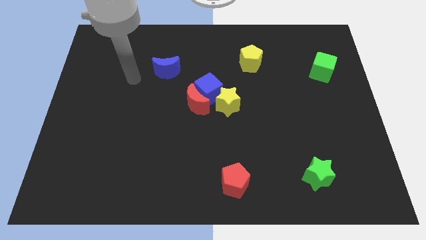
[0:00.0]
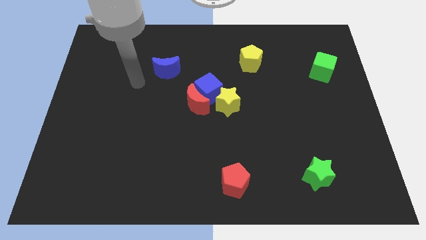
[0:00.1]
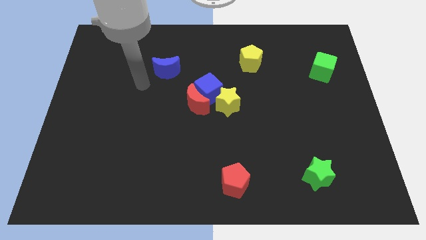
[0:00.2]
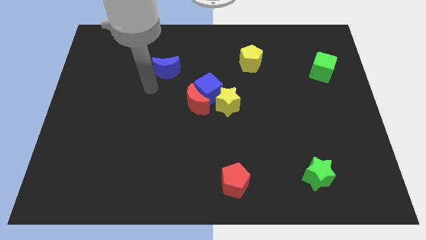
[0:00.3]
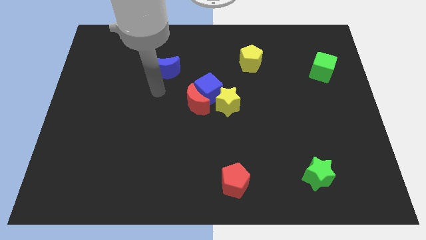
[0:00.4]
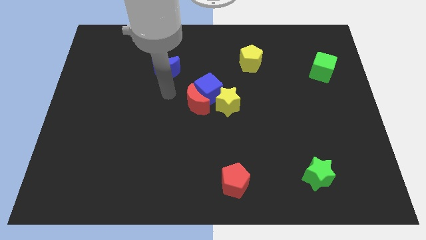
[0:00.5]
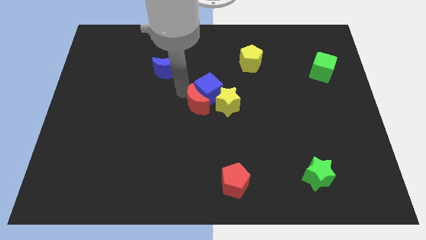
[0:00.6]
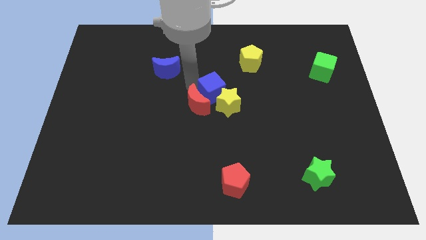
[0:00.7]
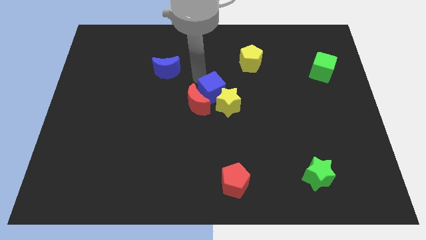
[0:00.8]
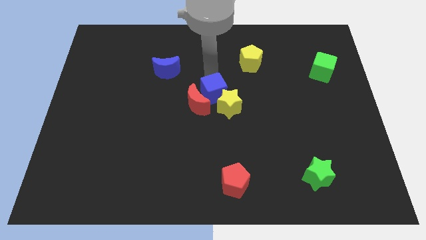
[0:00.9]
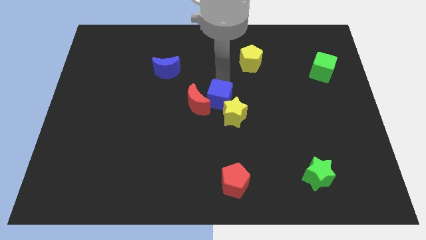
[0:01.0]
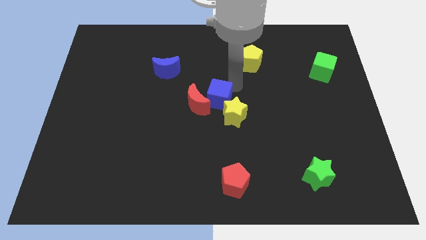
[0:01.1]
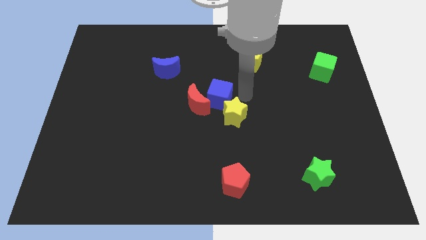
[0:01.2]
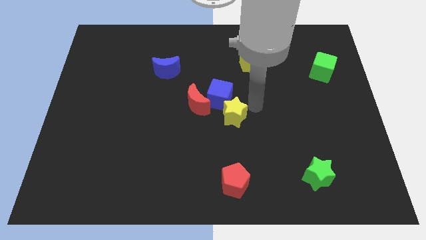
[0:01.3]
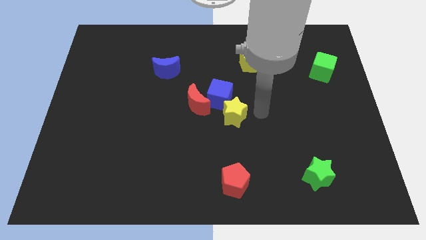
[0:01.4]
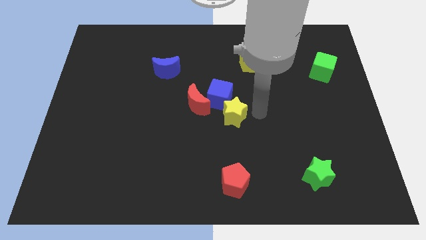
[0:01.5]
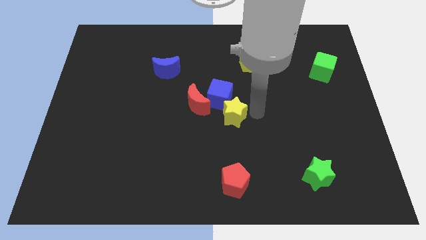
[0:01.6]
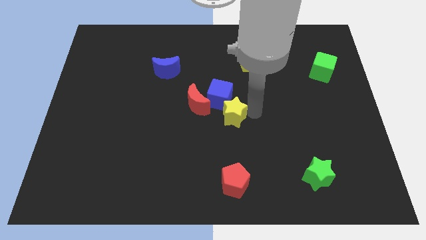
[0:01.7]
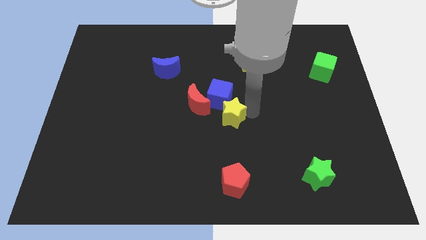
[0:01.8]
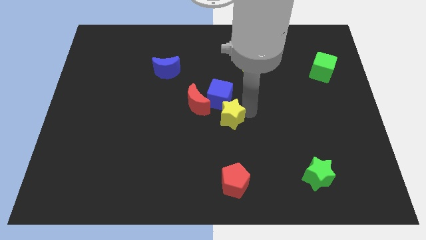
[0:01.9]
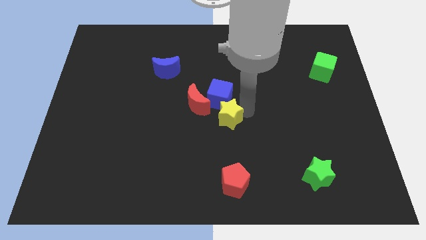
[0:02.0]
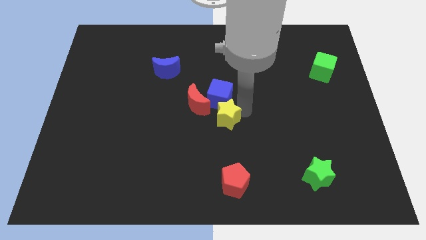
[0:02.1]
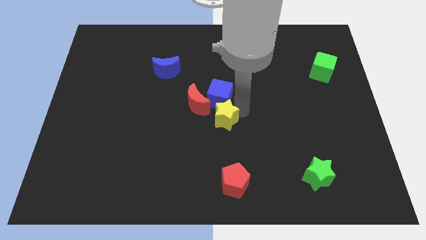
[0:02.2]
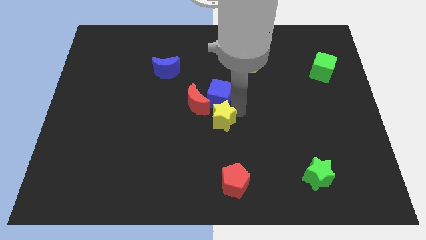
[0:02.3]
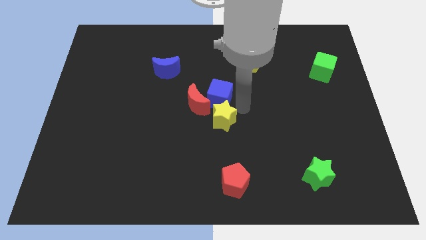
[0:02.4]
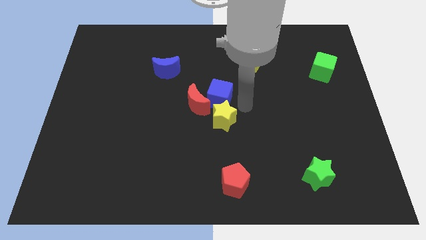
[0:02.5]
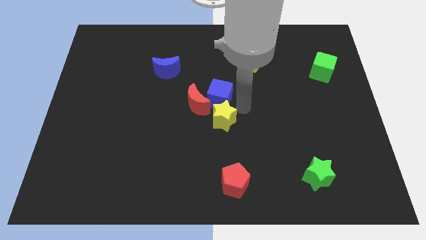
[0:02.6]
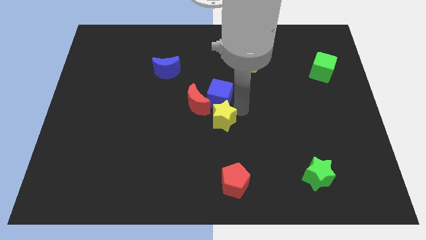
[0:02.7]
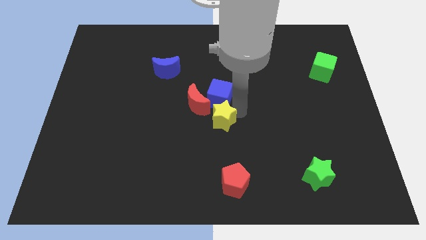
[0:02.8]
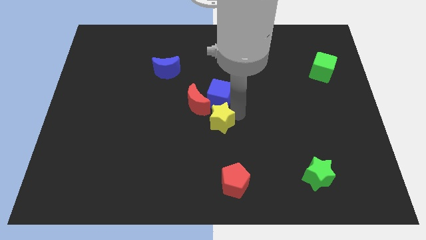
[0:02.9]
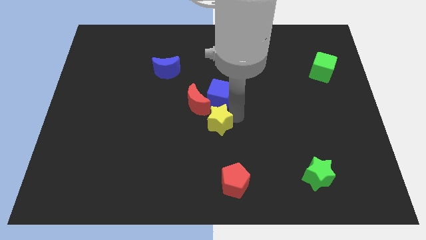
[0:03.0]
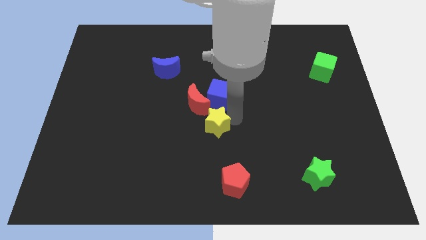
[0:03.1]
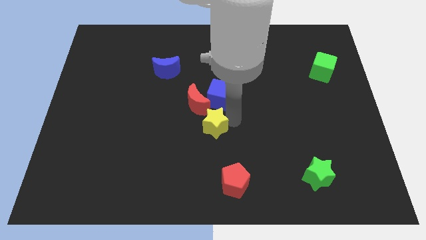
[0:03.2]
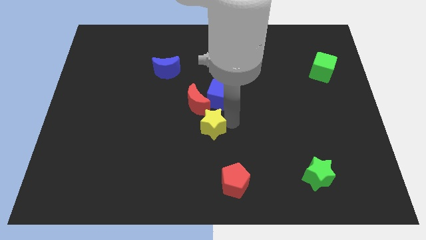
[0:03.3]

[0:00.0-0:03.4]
slide the yellow star somewhat down and then left

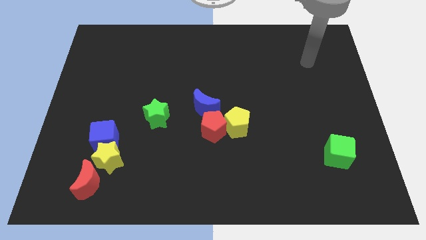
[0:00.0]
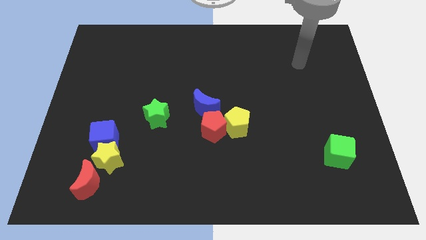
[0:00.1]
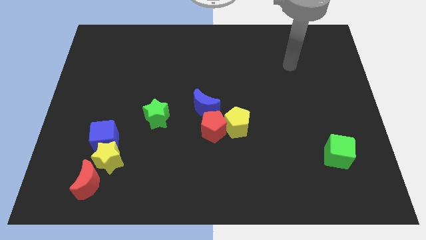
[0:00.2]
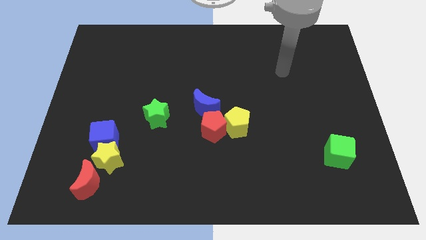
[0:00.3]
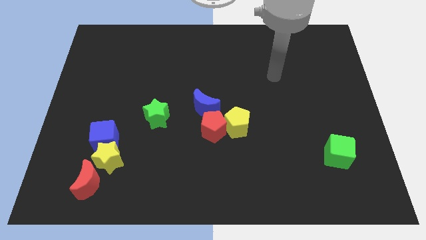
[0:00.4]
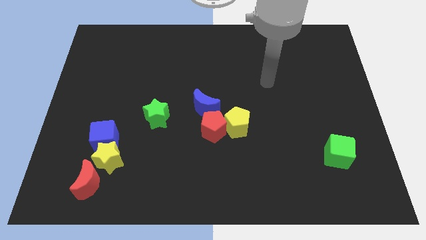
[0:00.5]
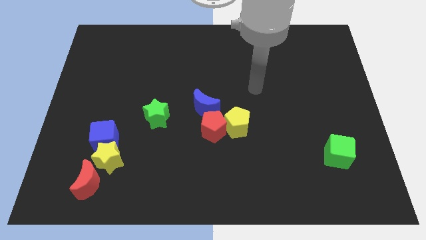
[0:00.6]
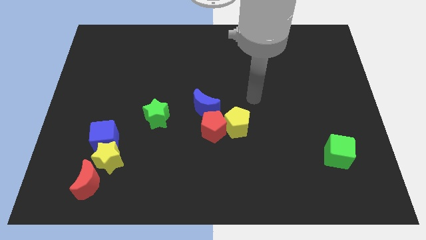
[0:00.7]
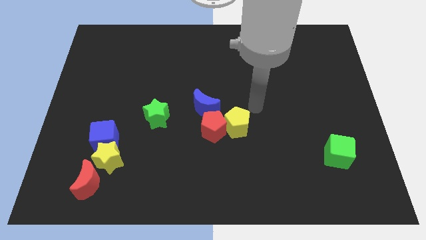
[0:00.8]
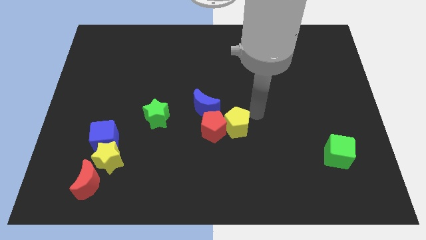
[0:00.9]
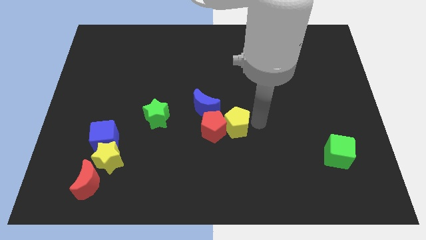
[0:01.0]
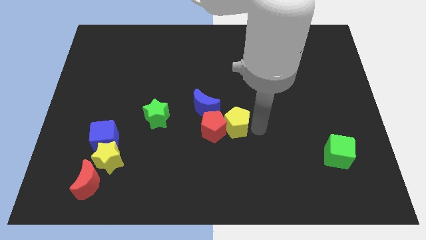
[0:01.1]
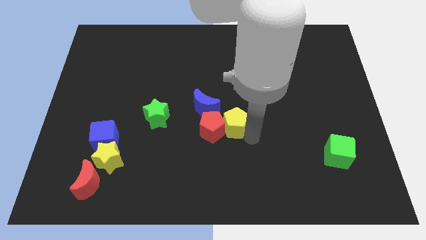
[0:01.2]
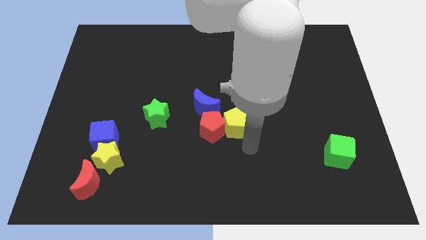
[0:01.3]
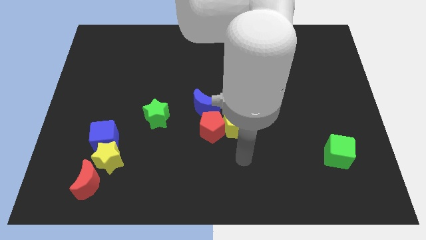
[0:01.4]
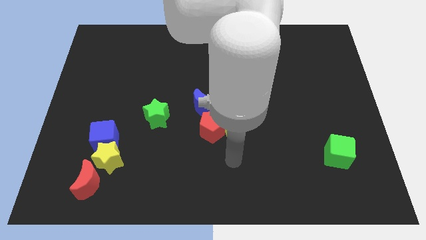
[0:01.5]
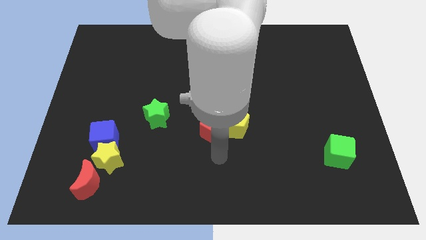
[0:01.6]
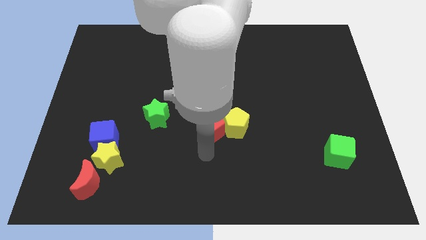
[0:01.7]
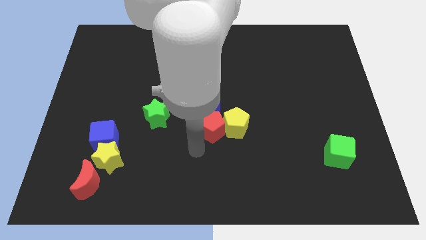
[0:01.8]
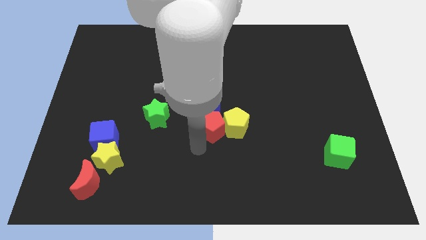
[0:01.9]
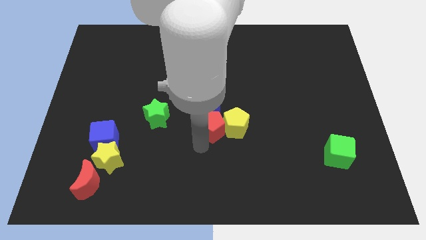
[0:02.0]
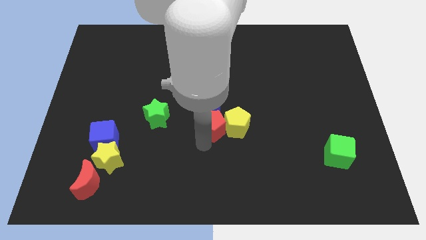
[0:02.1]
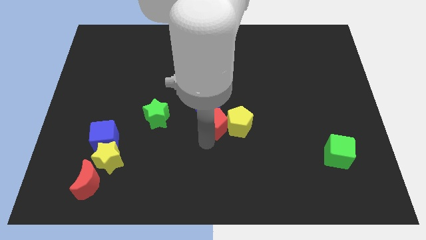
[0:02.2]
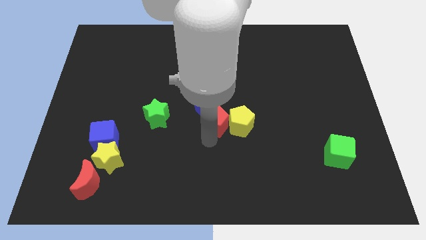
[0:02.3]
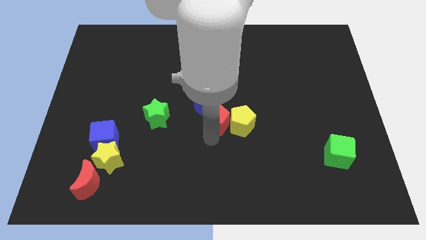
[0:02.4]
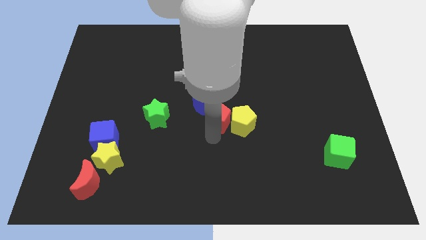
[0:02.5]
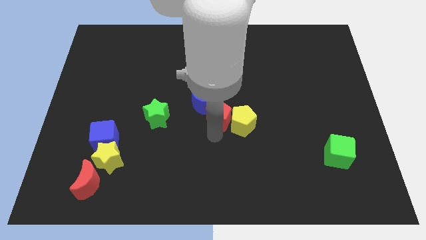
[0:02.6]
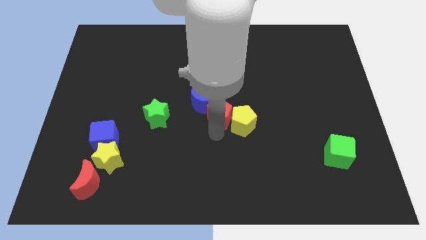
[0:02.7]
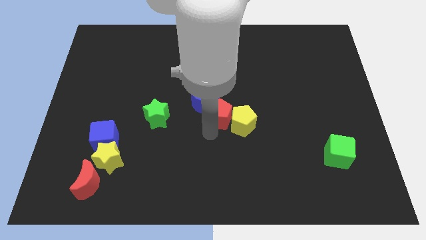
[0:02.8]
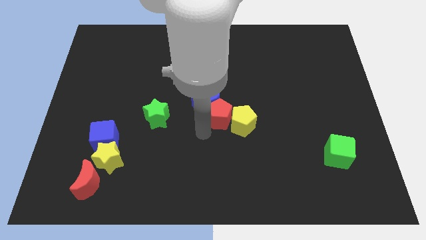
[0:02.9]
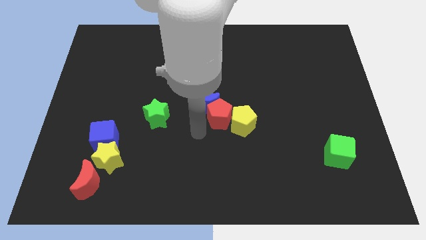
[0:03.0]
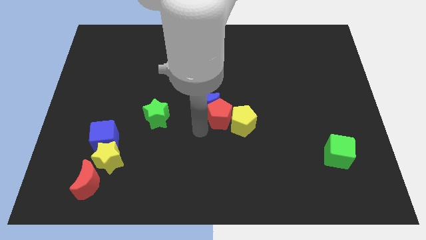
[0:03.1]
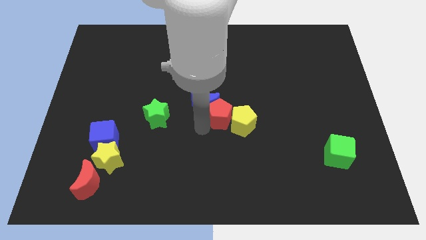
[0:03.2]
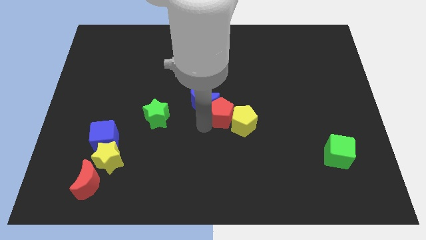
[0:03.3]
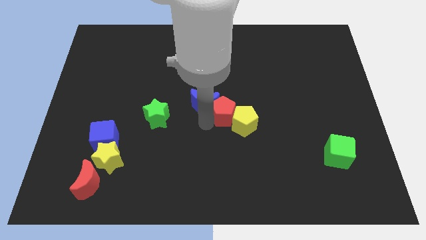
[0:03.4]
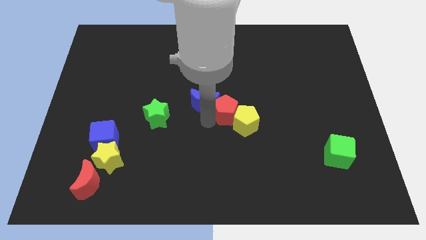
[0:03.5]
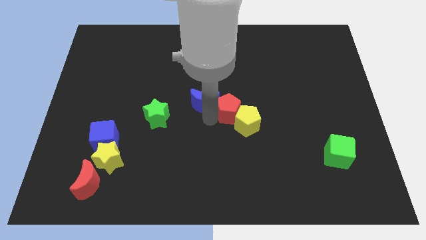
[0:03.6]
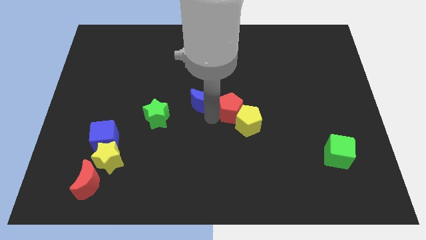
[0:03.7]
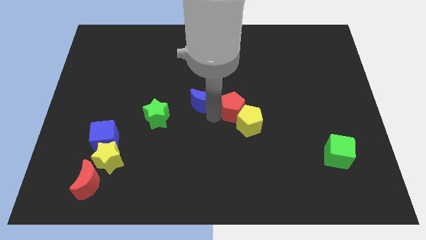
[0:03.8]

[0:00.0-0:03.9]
slightly slide the red pentagon diagonally up and right

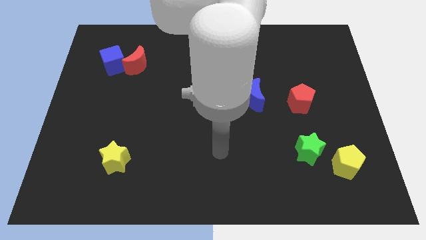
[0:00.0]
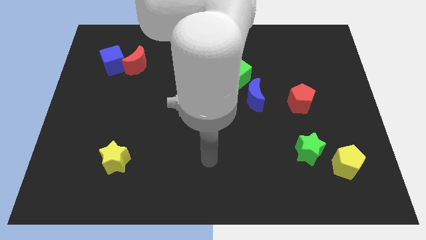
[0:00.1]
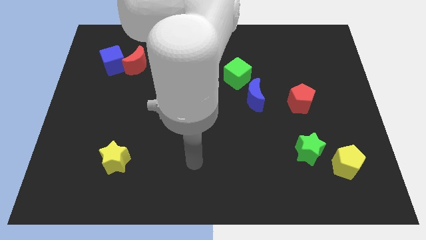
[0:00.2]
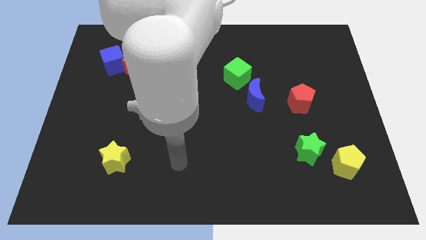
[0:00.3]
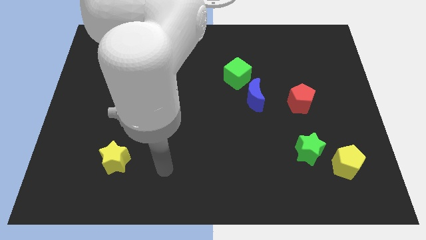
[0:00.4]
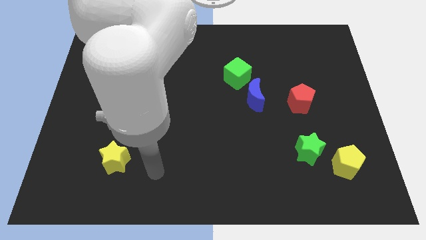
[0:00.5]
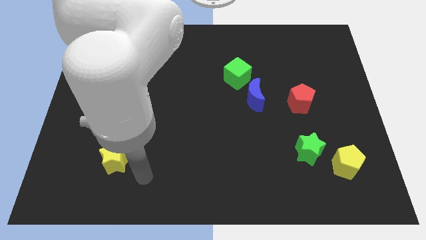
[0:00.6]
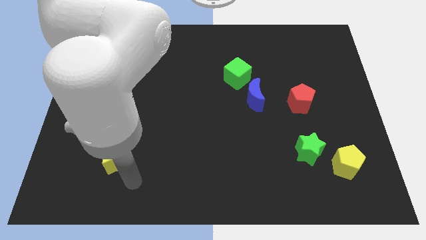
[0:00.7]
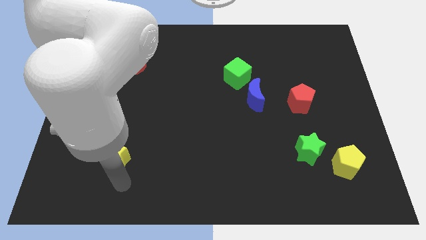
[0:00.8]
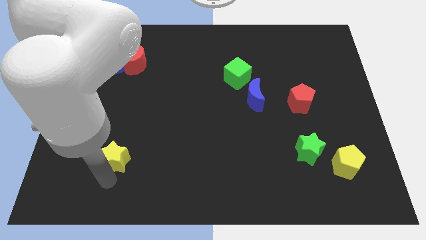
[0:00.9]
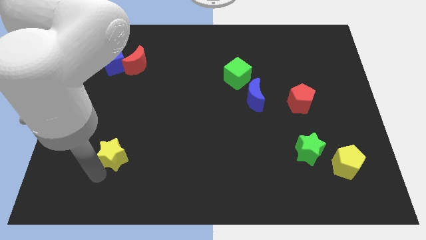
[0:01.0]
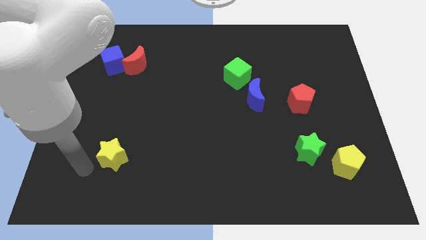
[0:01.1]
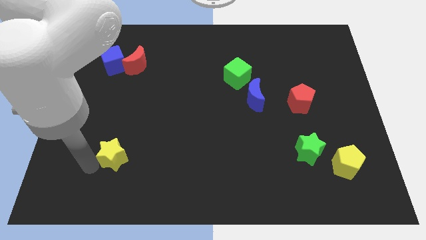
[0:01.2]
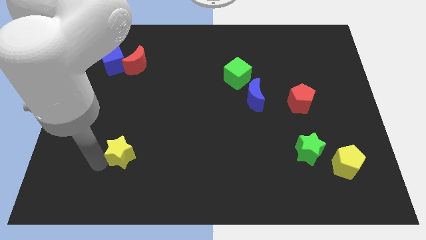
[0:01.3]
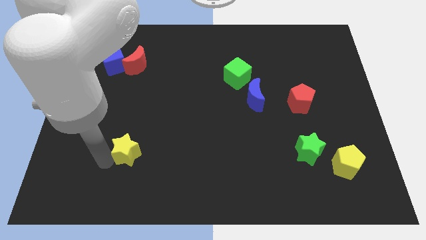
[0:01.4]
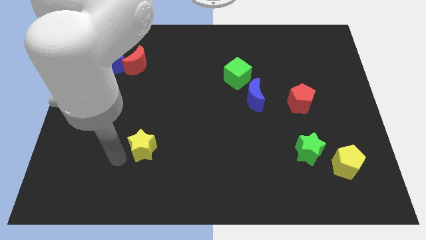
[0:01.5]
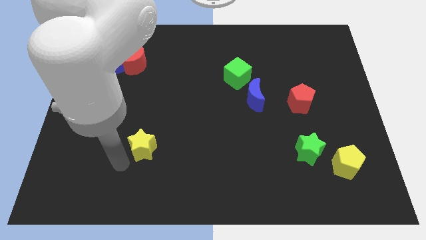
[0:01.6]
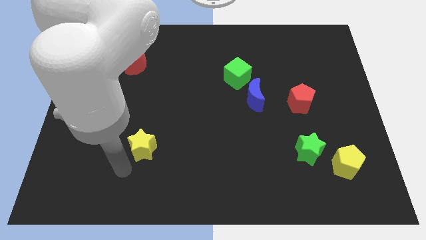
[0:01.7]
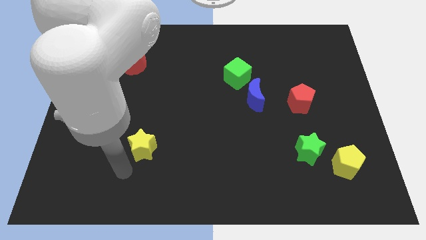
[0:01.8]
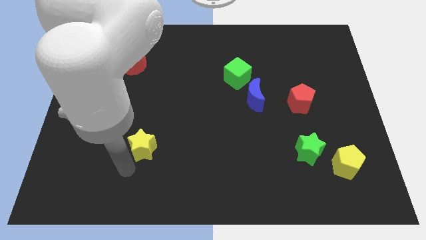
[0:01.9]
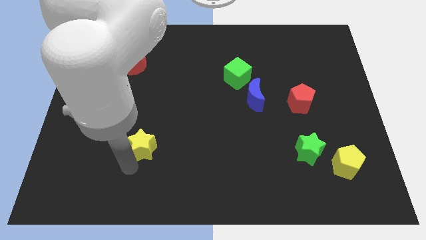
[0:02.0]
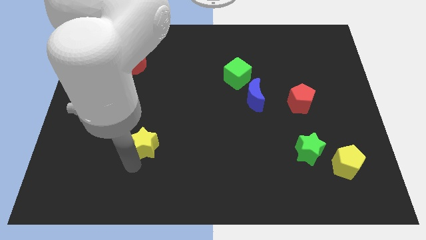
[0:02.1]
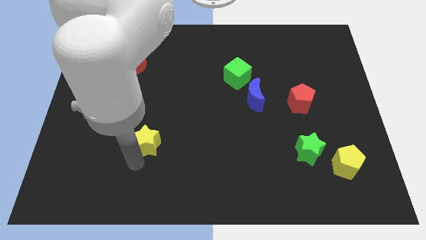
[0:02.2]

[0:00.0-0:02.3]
move the yellow star slightly upwards and then to the right
